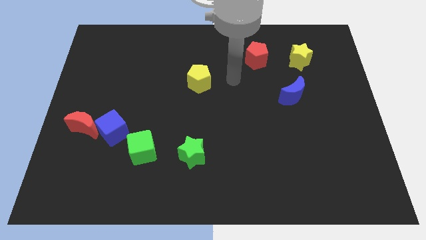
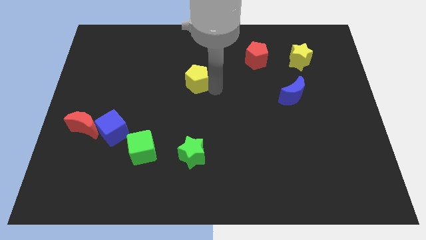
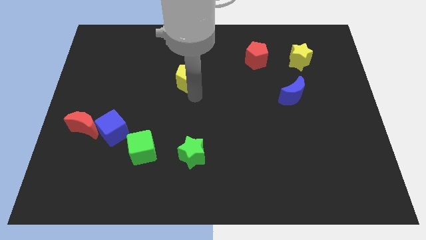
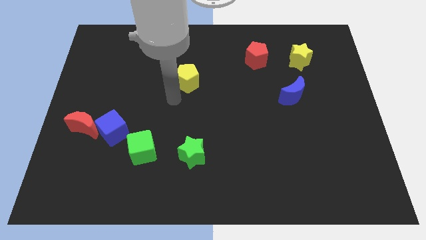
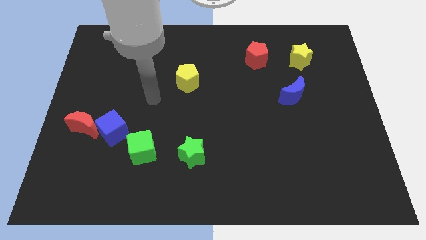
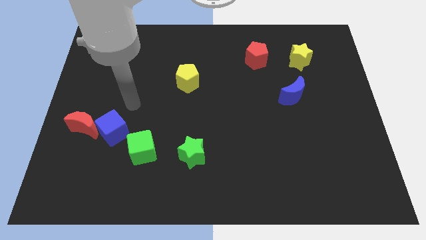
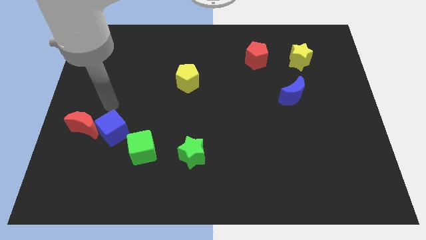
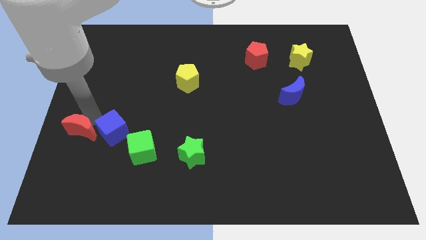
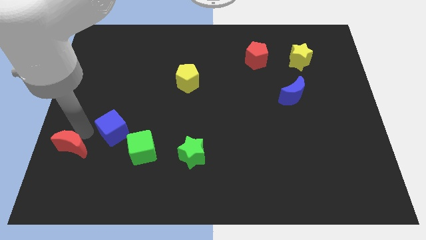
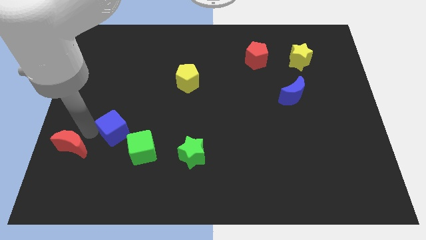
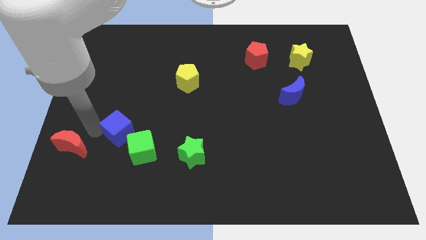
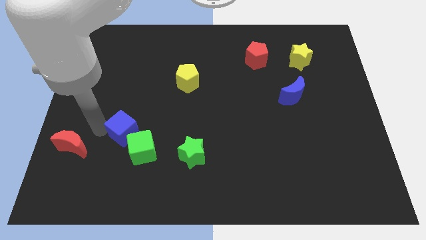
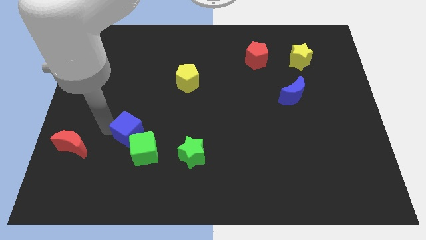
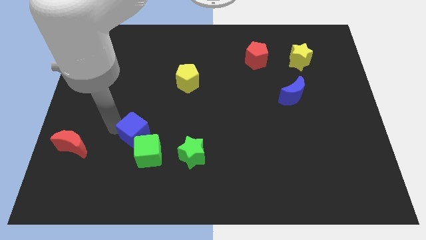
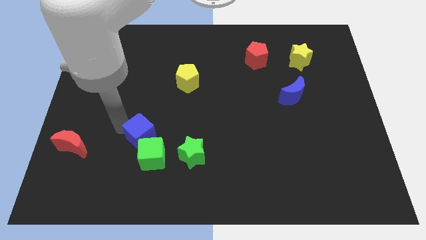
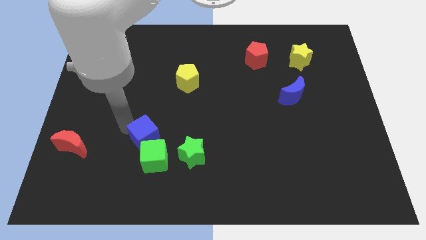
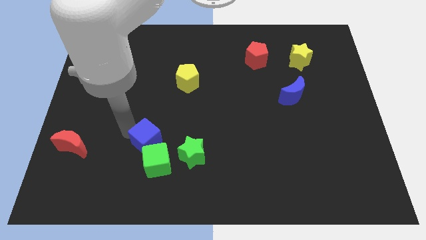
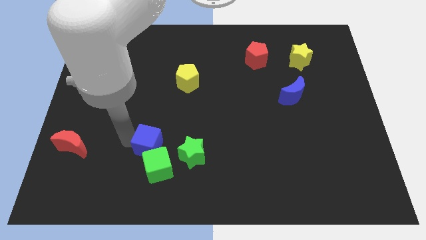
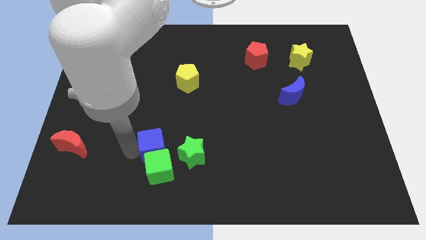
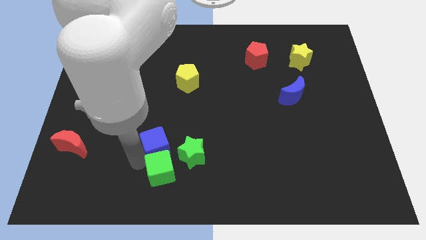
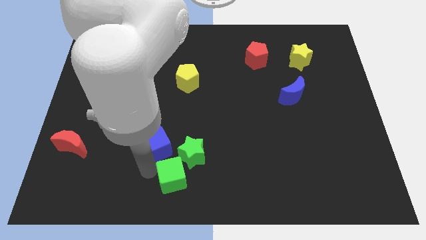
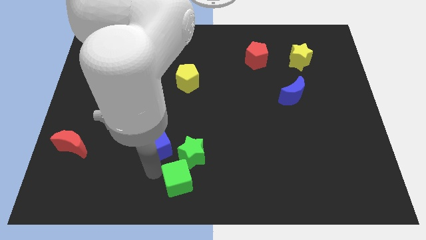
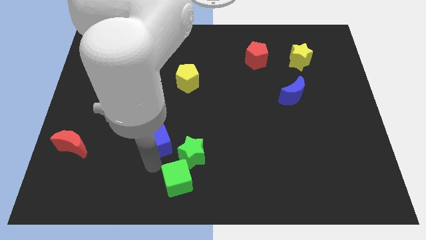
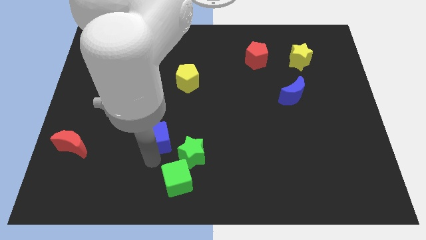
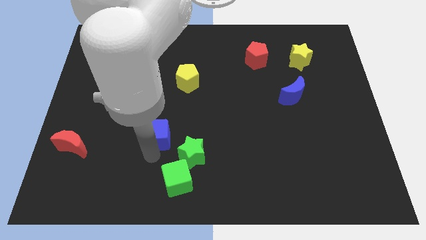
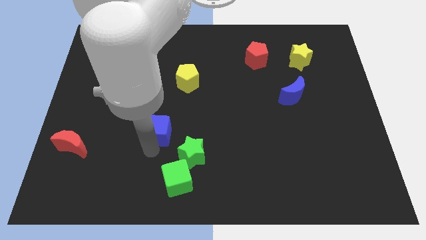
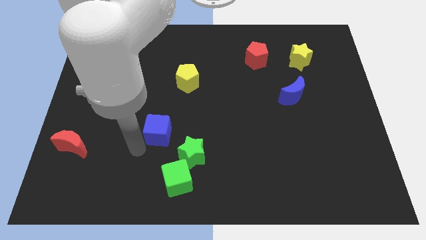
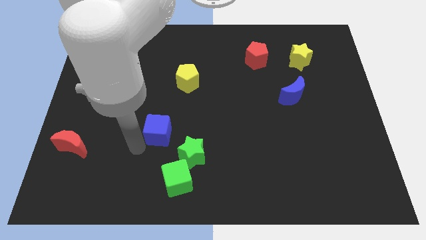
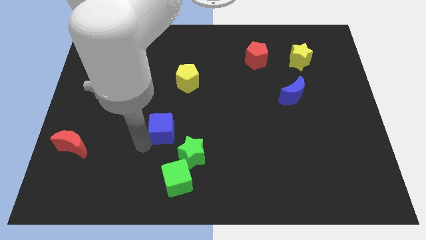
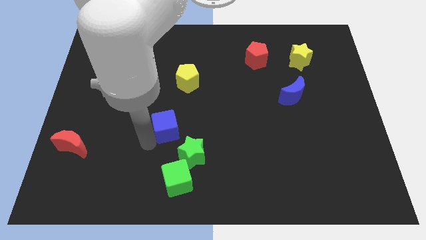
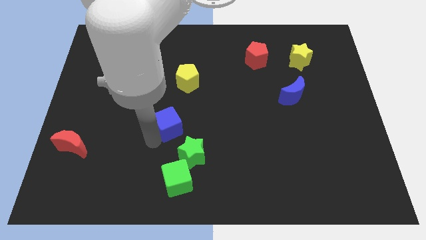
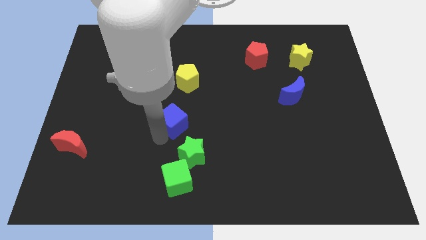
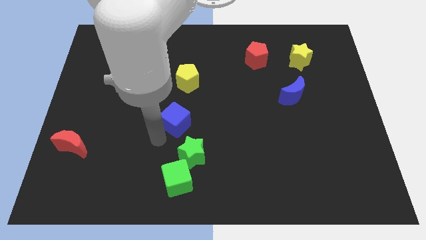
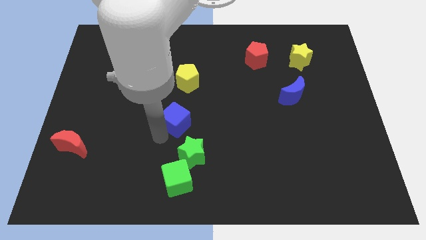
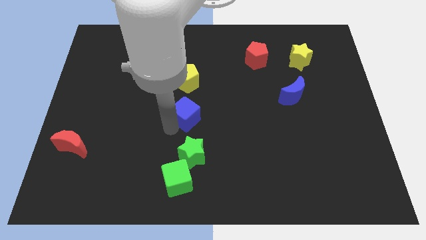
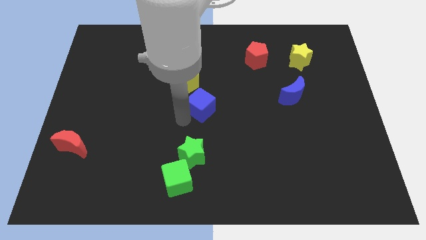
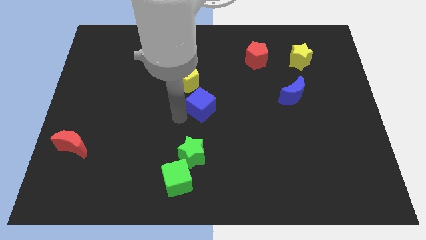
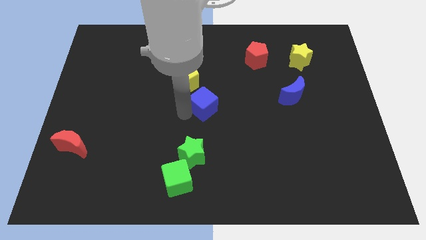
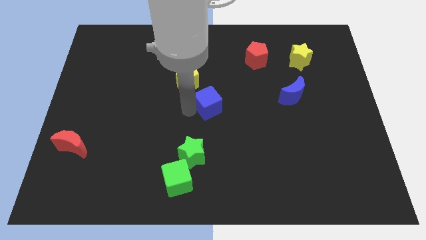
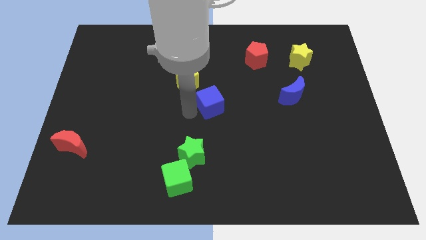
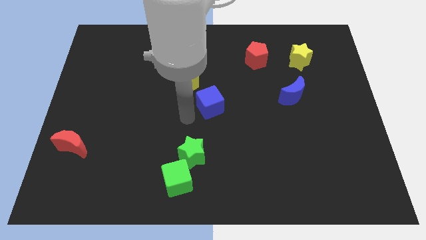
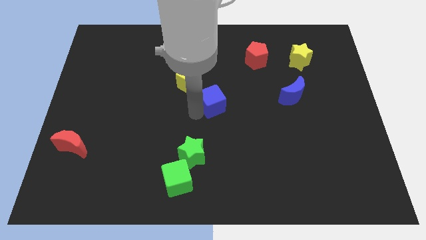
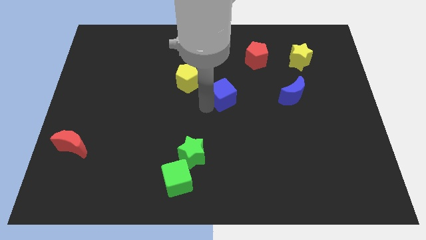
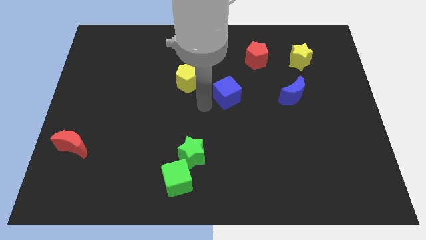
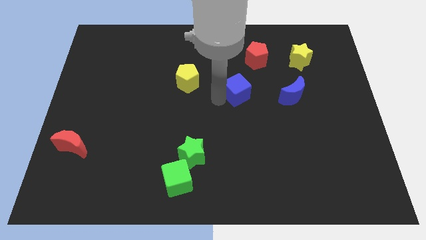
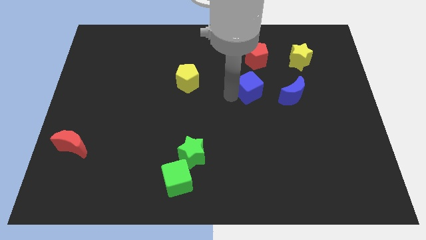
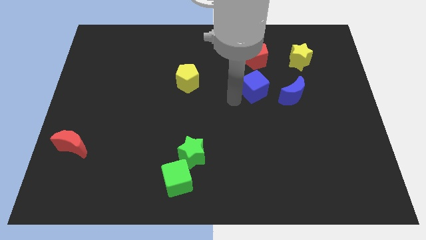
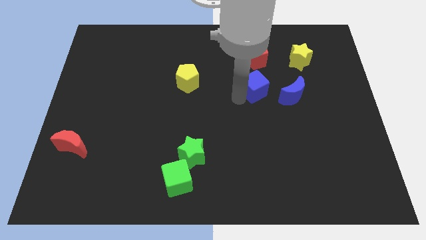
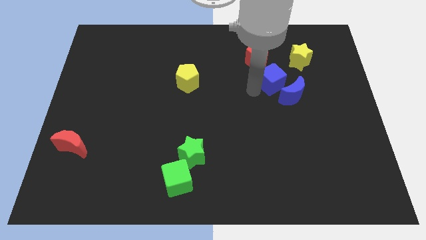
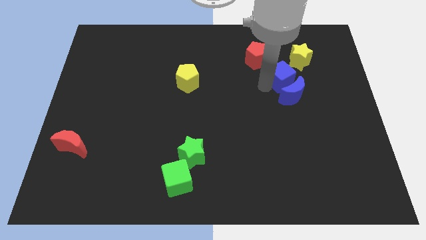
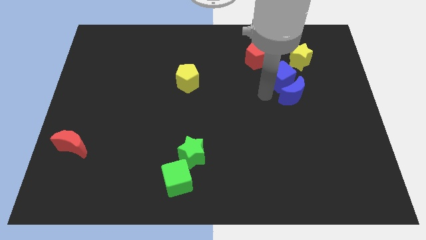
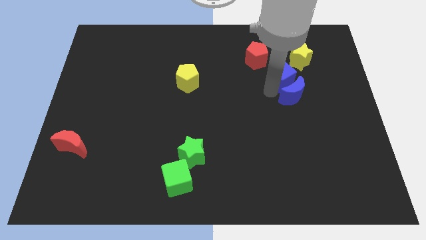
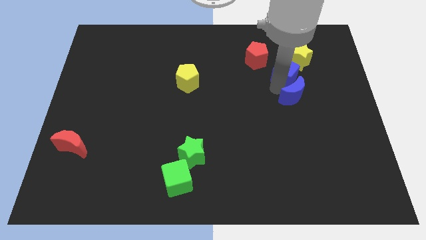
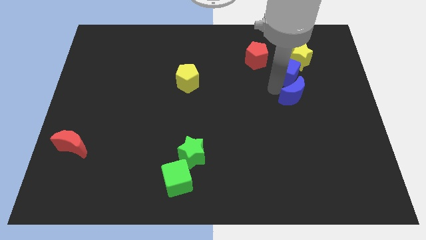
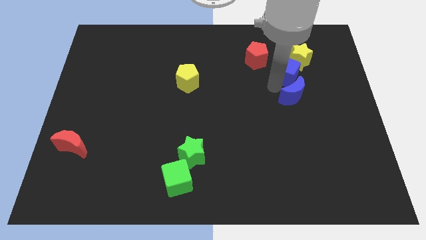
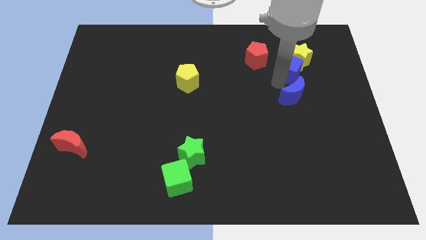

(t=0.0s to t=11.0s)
slide the blue cube towards the yellow star

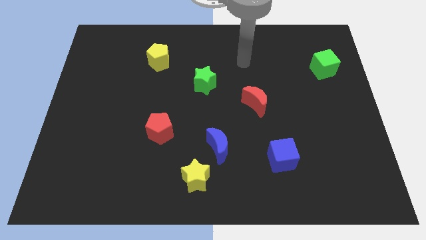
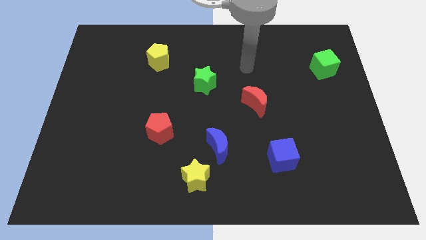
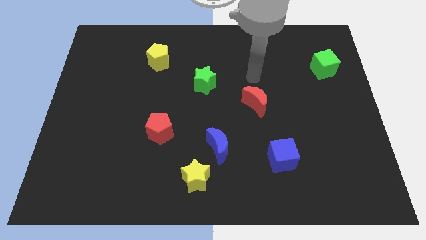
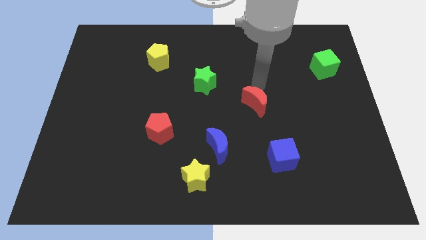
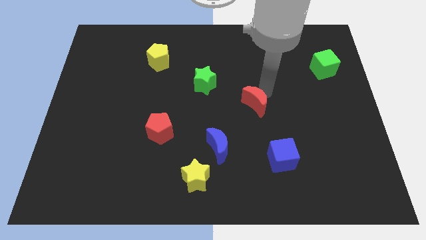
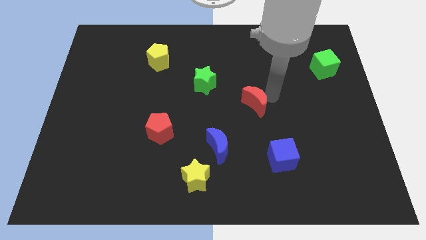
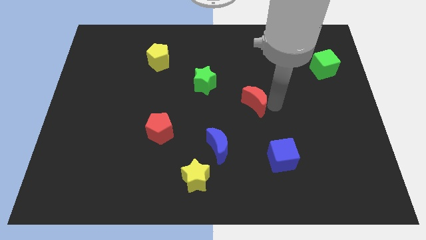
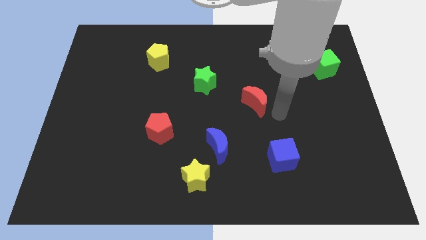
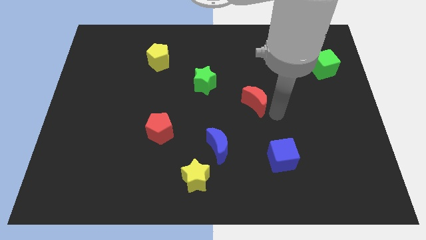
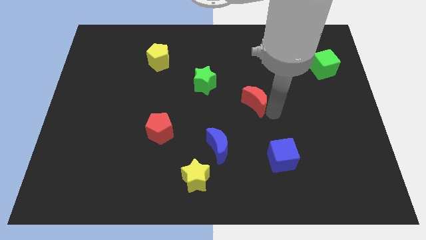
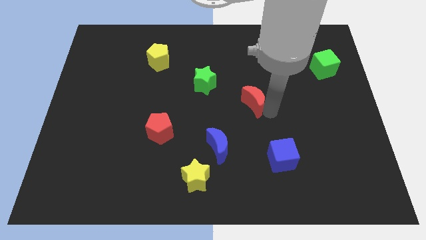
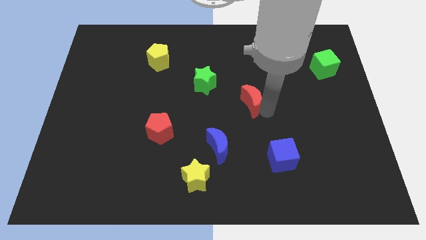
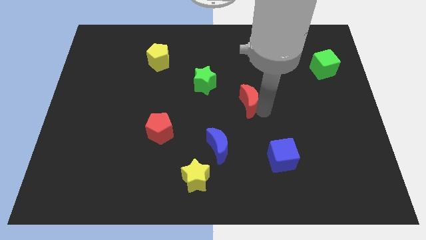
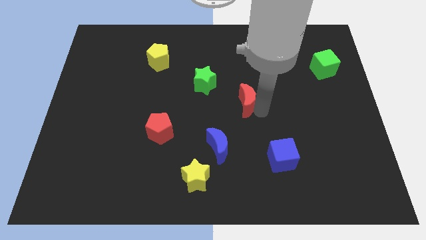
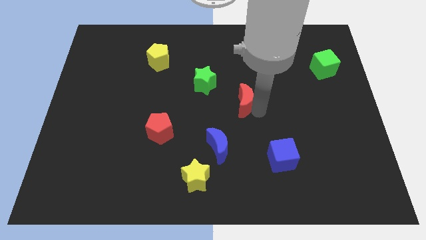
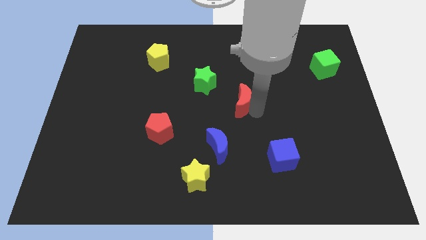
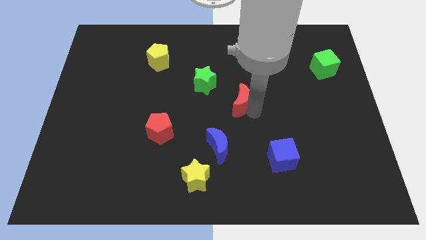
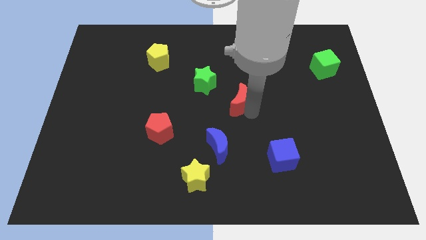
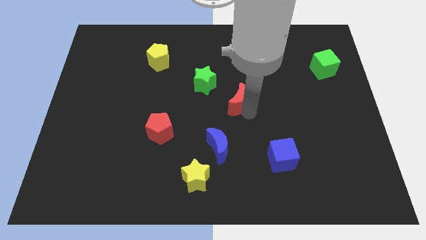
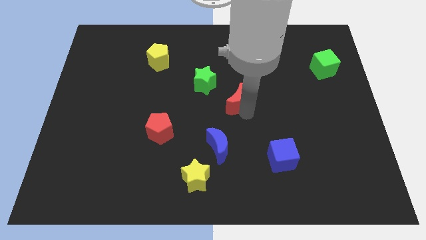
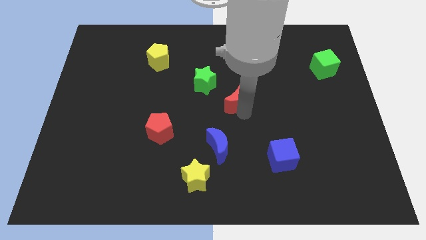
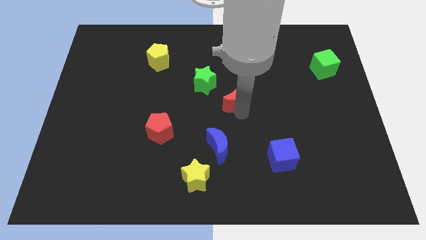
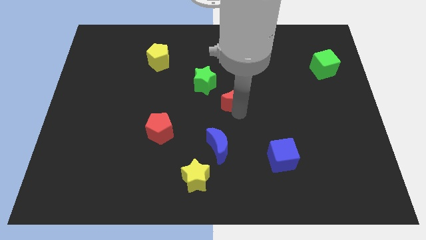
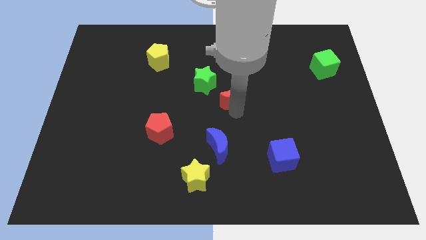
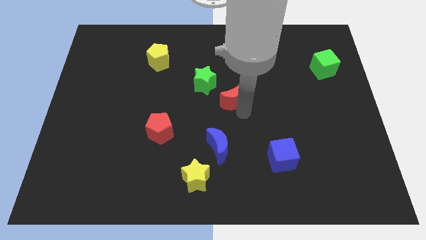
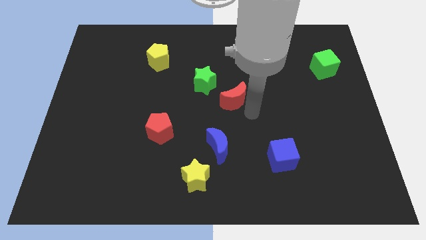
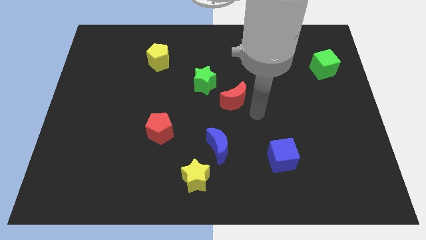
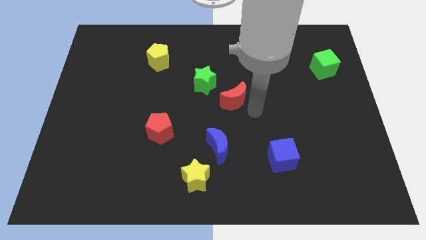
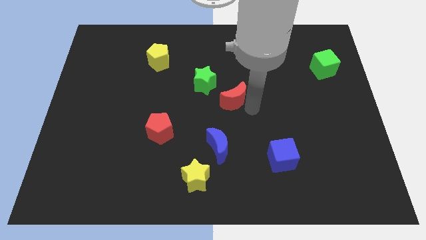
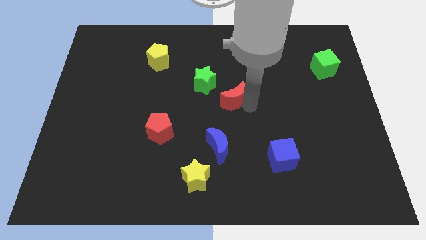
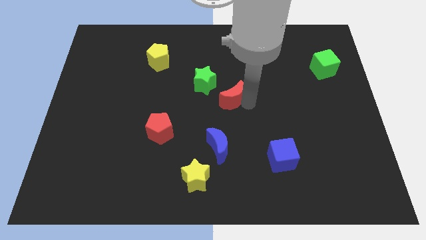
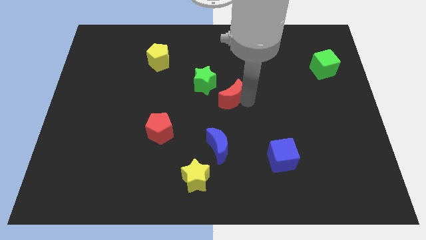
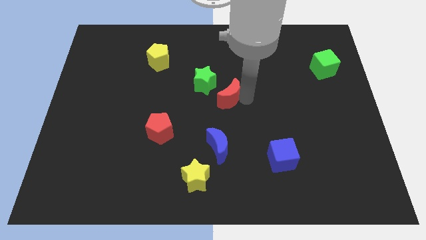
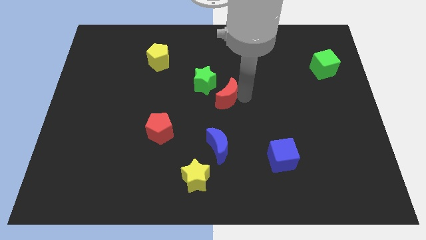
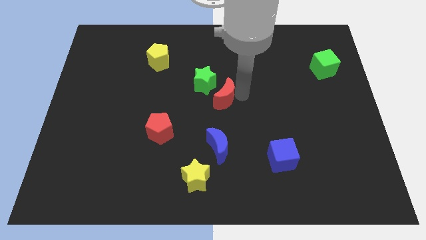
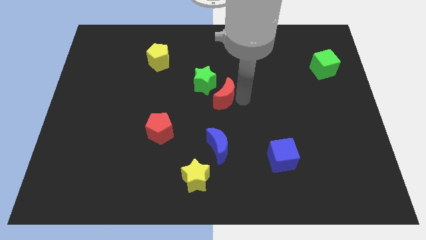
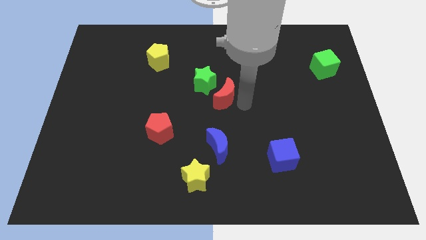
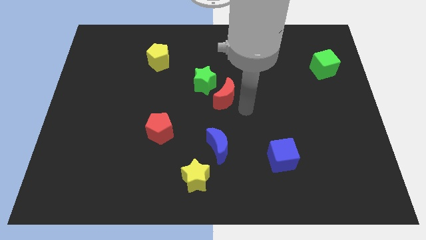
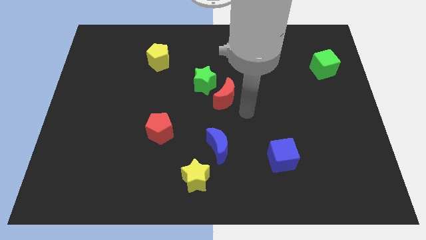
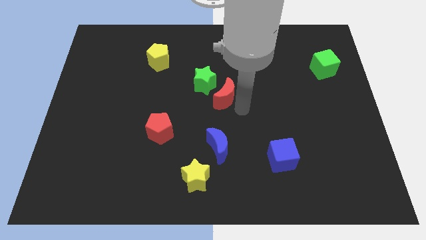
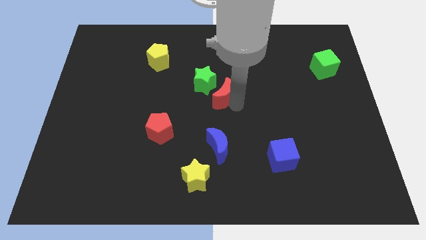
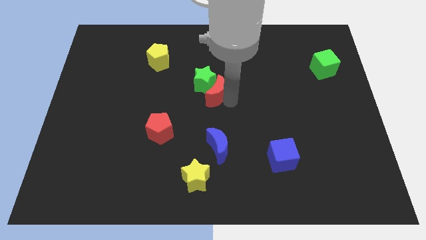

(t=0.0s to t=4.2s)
push the red moon to the green star
